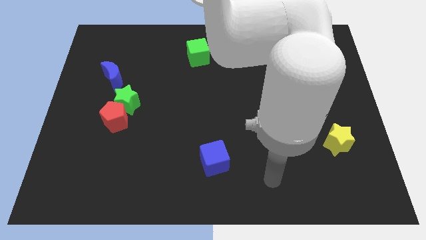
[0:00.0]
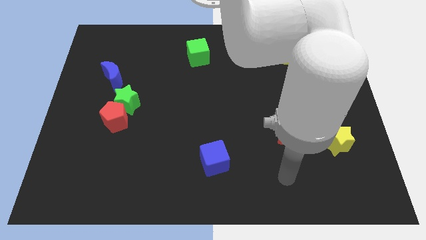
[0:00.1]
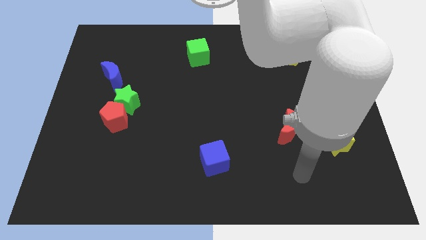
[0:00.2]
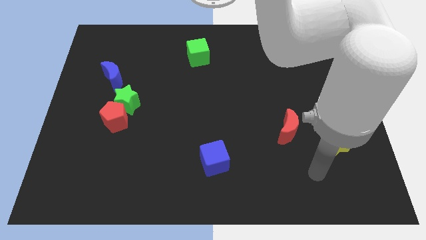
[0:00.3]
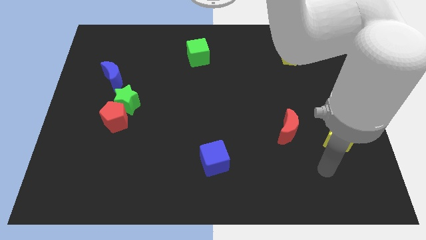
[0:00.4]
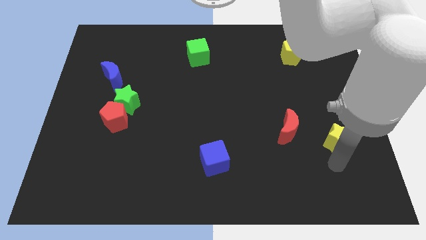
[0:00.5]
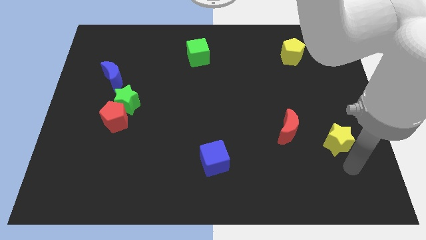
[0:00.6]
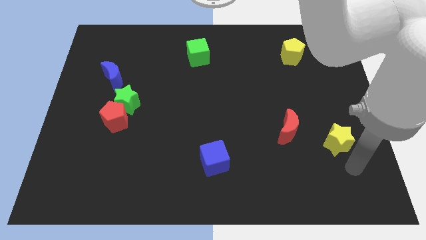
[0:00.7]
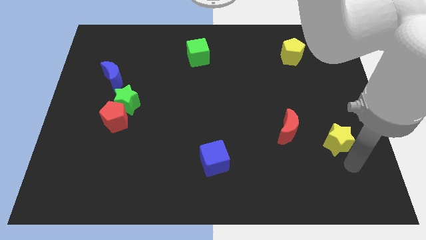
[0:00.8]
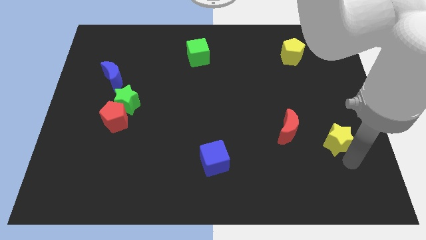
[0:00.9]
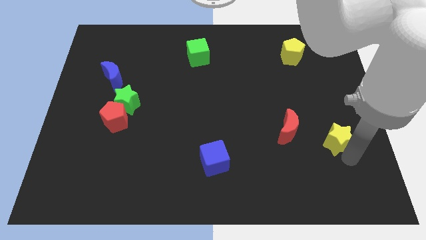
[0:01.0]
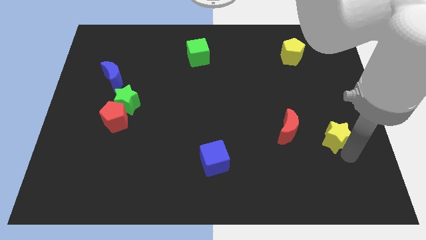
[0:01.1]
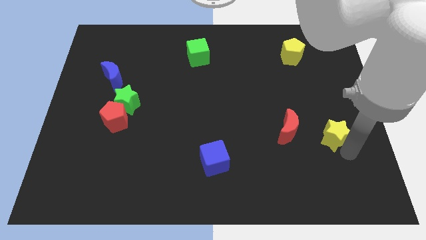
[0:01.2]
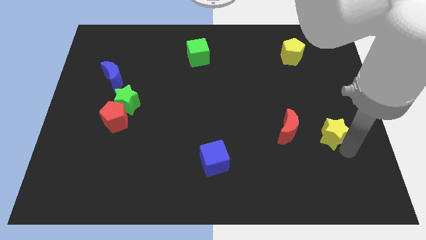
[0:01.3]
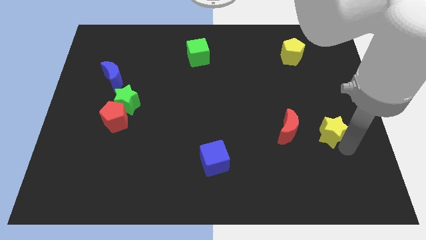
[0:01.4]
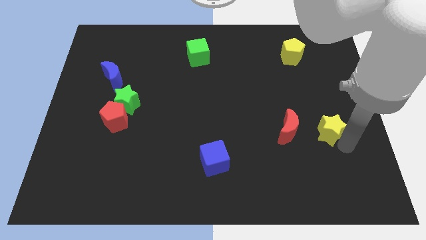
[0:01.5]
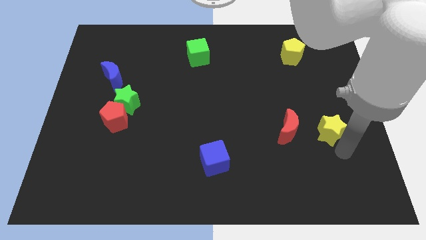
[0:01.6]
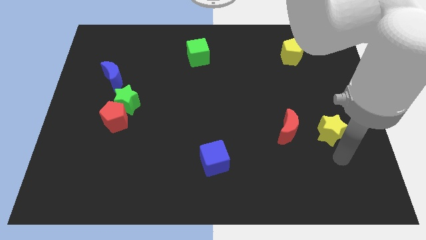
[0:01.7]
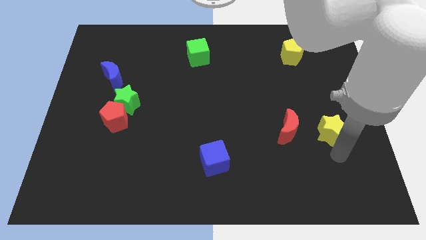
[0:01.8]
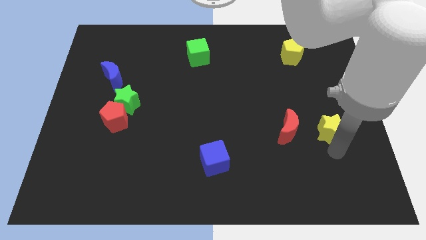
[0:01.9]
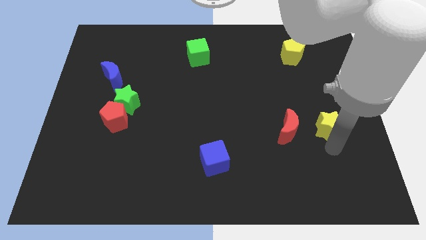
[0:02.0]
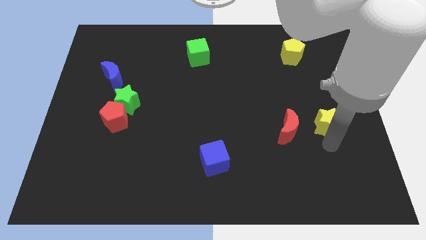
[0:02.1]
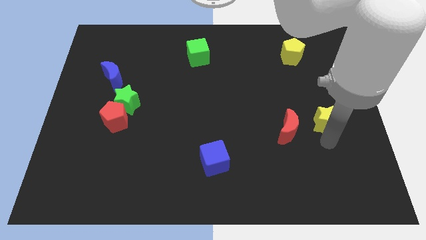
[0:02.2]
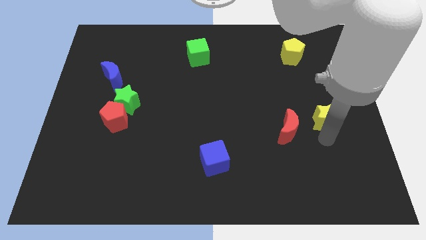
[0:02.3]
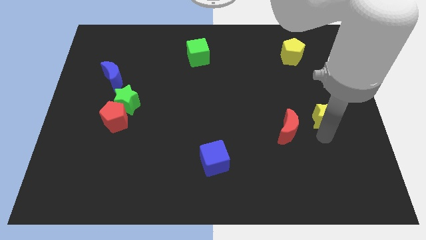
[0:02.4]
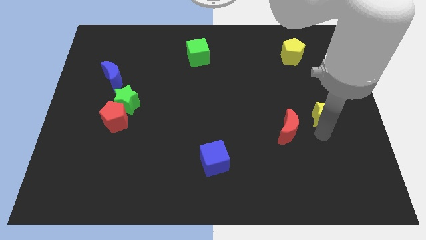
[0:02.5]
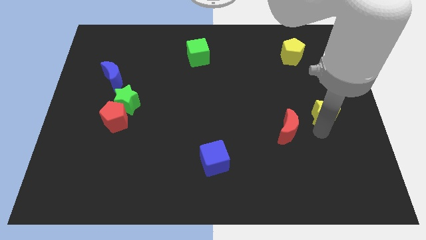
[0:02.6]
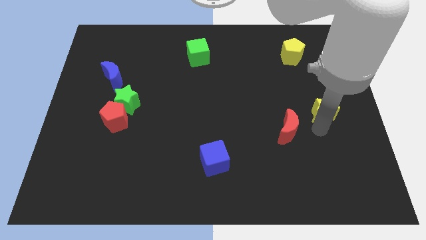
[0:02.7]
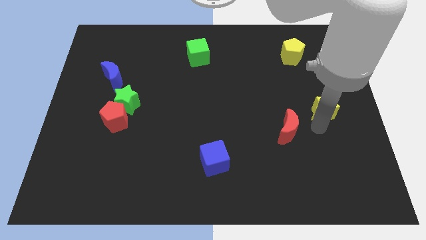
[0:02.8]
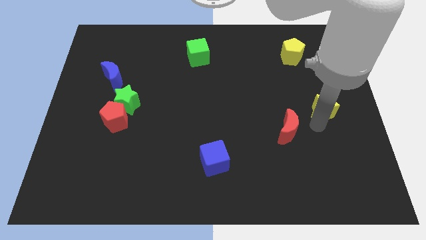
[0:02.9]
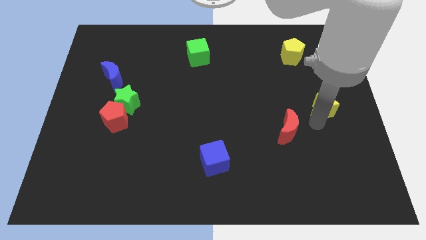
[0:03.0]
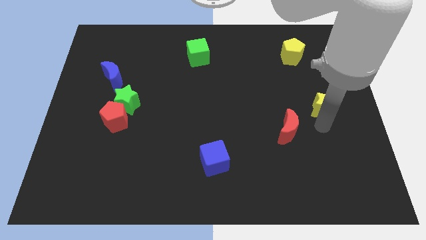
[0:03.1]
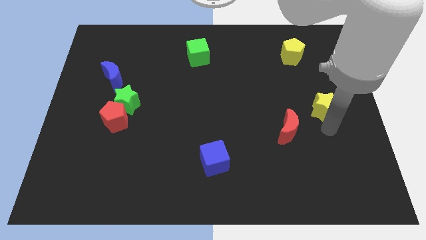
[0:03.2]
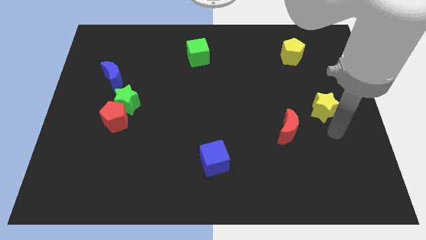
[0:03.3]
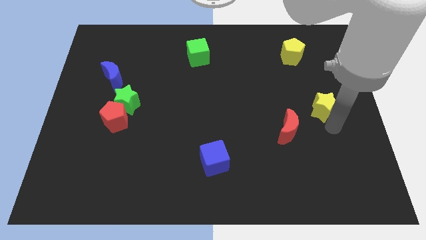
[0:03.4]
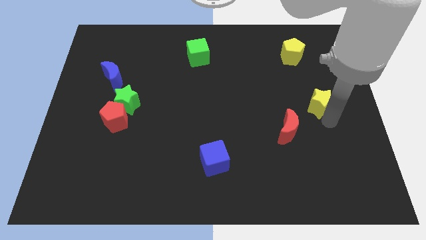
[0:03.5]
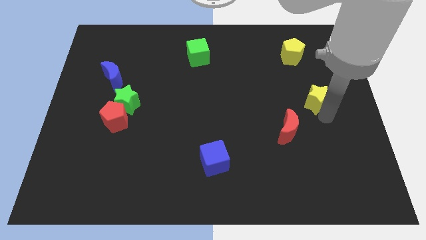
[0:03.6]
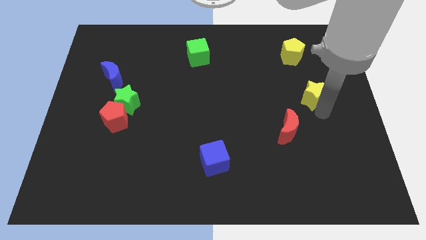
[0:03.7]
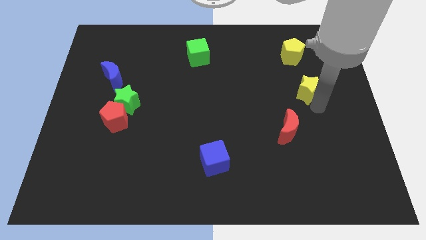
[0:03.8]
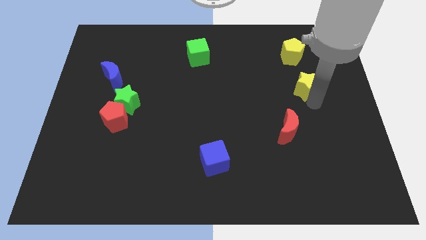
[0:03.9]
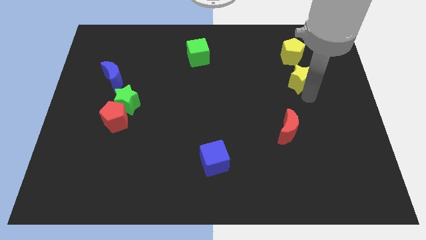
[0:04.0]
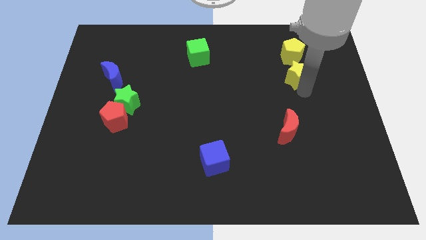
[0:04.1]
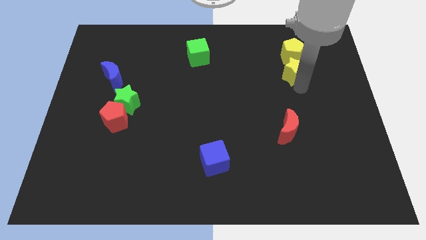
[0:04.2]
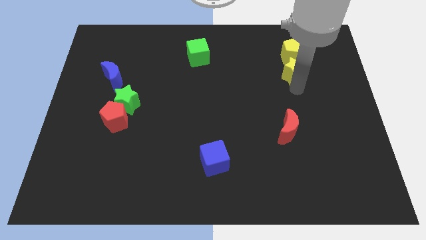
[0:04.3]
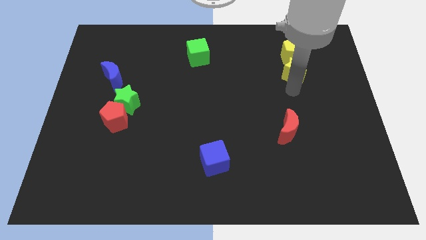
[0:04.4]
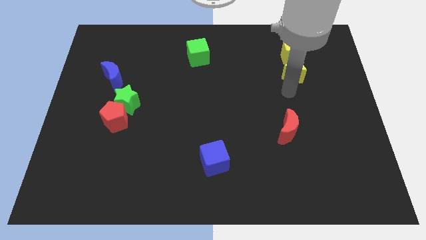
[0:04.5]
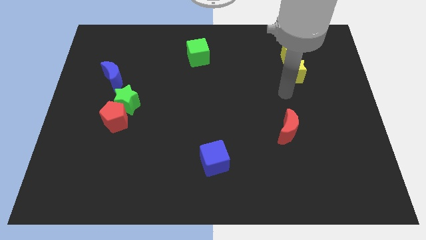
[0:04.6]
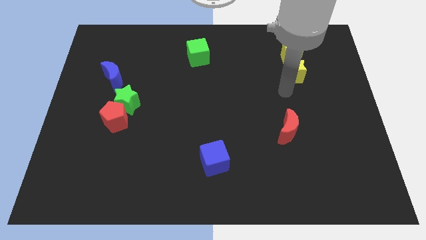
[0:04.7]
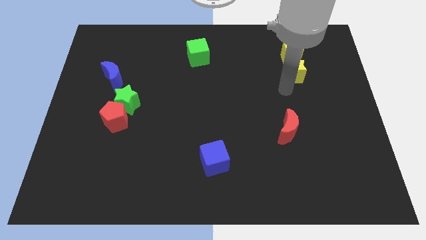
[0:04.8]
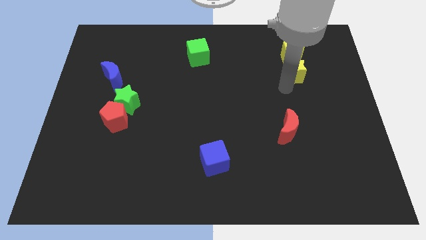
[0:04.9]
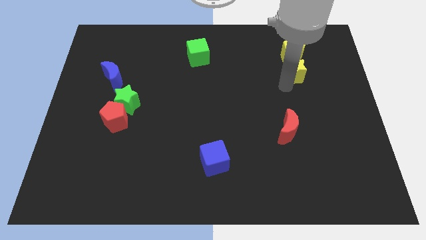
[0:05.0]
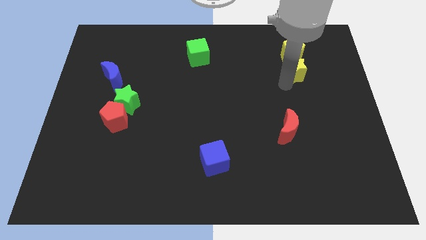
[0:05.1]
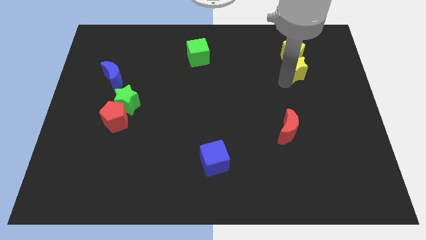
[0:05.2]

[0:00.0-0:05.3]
move the yellow star close to the yellow pentagon

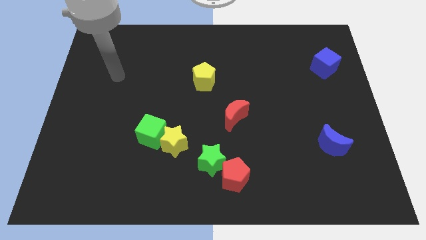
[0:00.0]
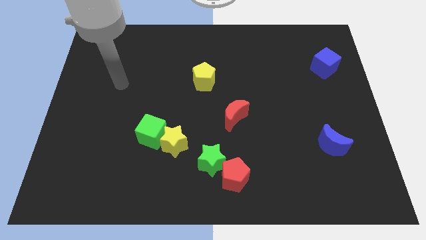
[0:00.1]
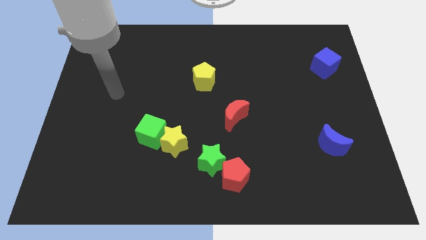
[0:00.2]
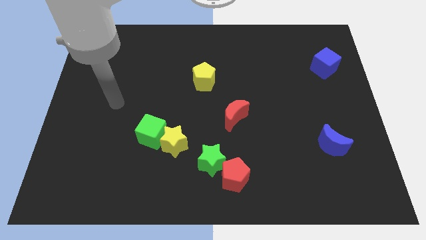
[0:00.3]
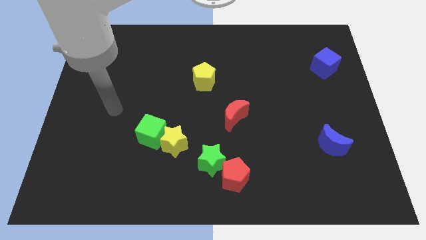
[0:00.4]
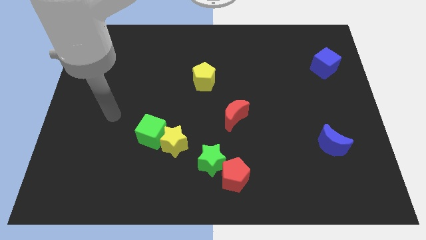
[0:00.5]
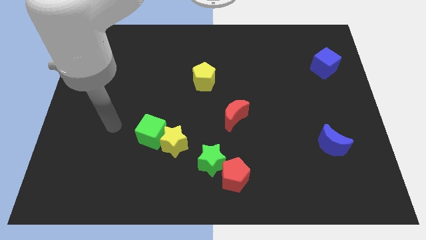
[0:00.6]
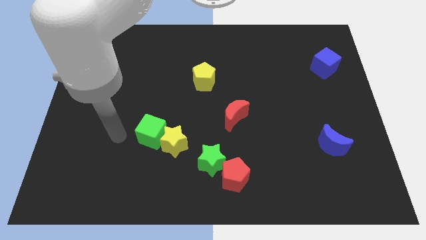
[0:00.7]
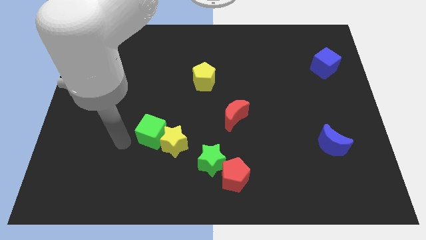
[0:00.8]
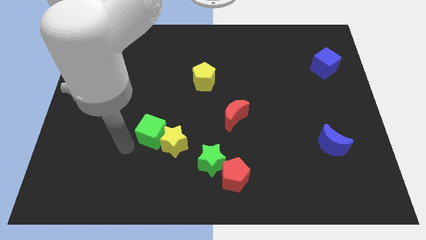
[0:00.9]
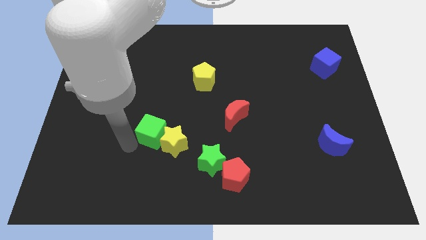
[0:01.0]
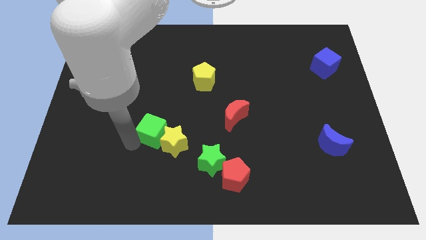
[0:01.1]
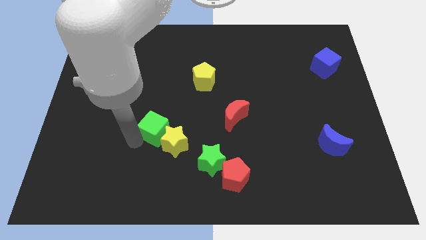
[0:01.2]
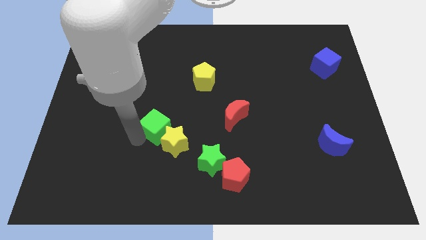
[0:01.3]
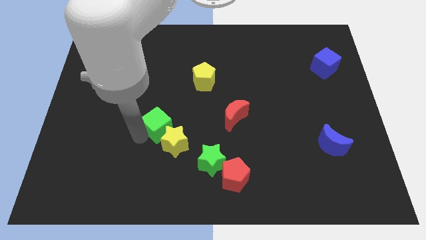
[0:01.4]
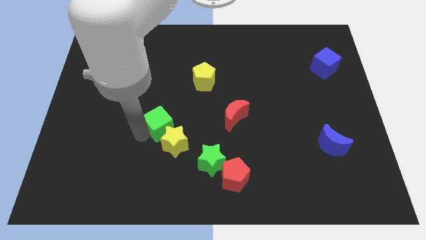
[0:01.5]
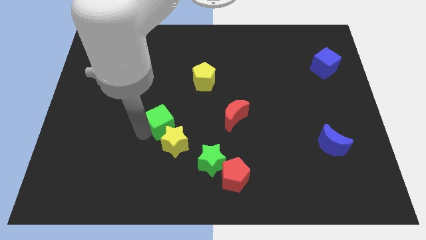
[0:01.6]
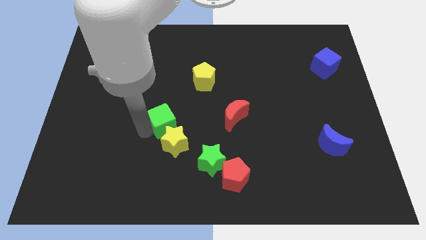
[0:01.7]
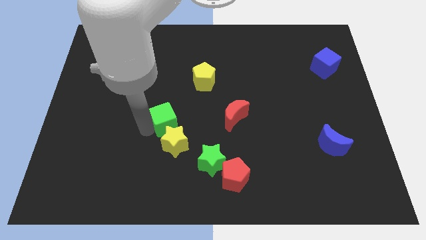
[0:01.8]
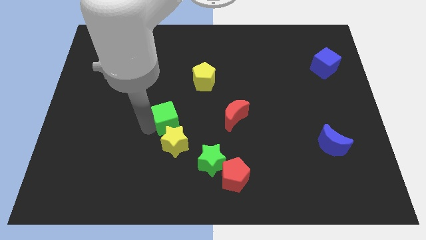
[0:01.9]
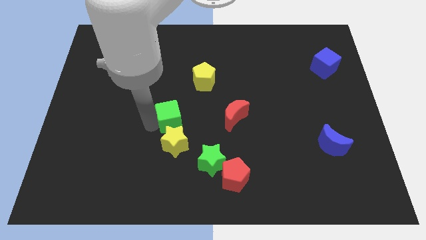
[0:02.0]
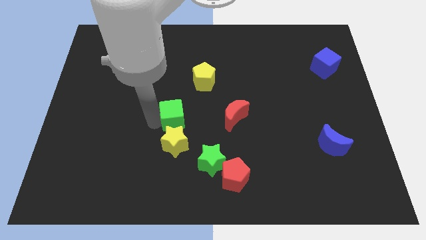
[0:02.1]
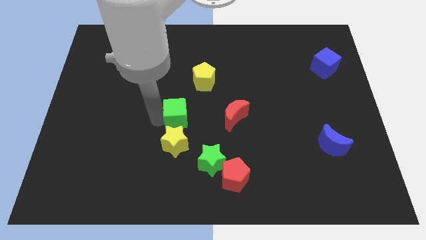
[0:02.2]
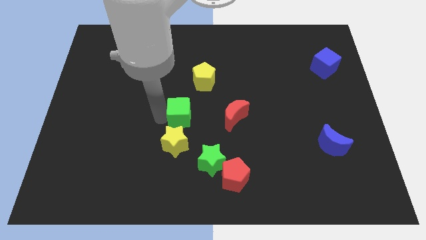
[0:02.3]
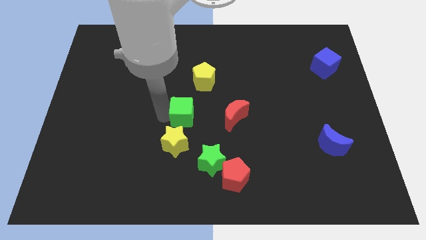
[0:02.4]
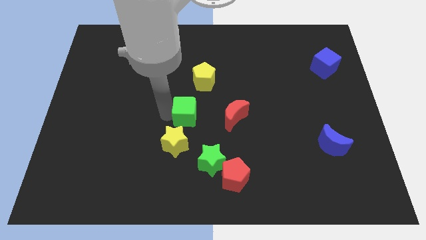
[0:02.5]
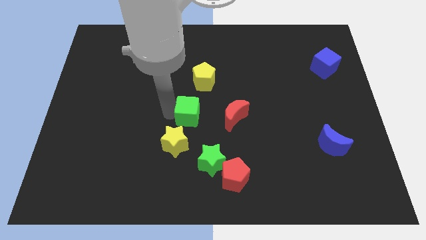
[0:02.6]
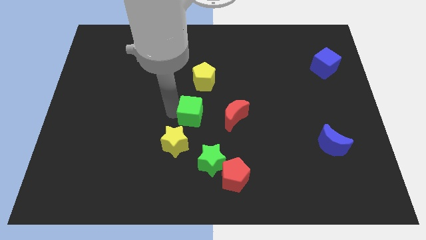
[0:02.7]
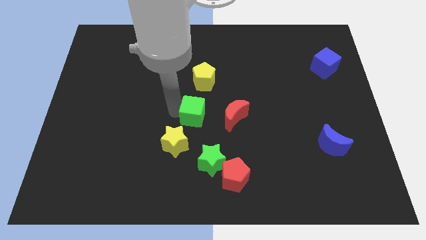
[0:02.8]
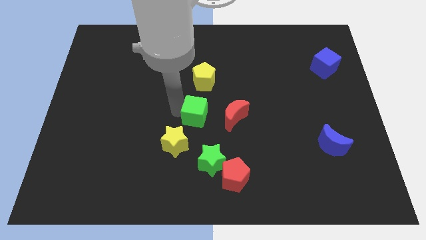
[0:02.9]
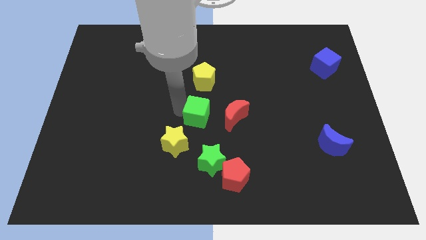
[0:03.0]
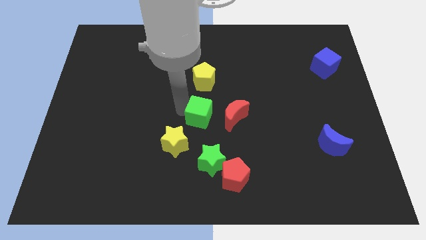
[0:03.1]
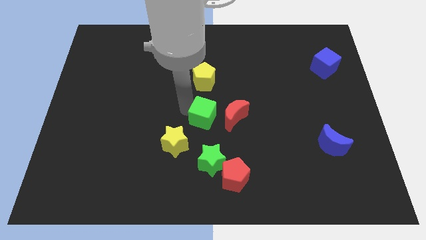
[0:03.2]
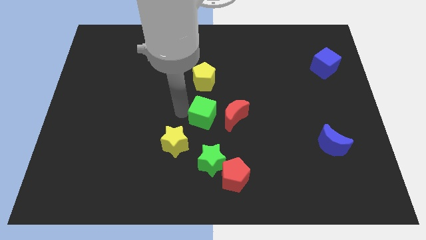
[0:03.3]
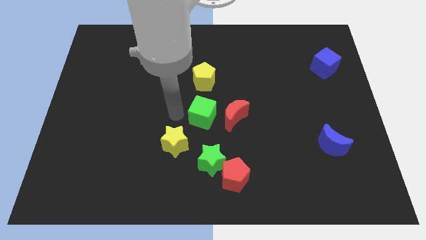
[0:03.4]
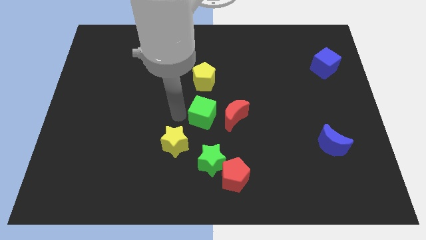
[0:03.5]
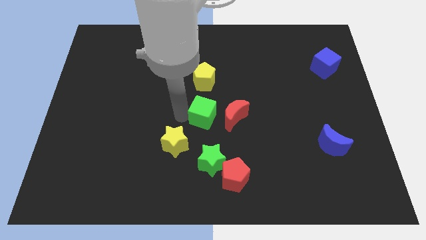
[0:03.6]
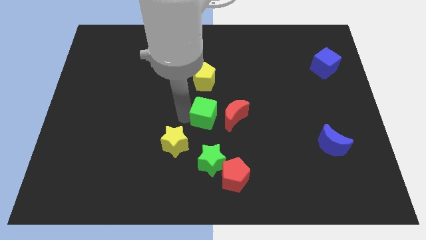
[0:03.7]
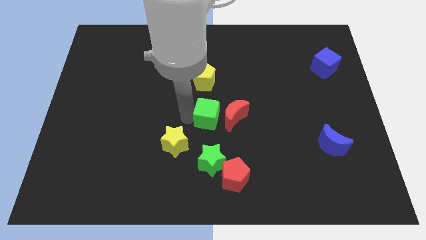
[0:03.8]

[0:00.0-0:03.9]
put the green cube towards the red moon
